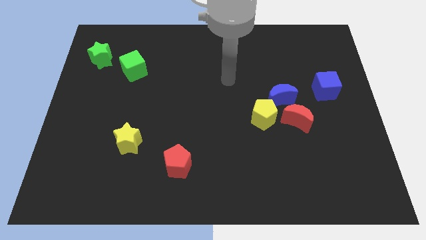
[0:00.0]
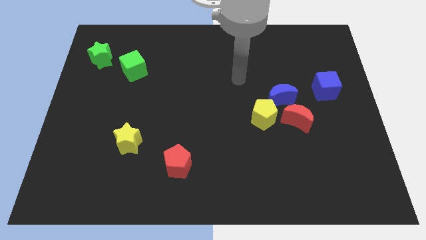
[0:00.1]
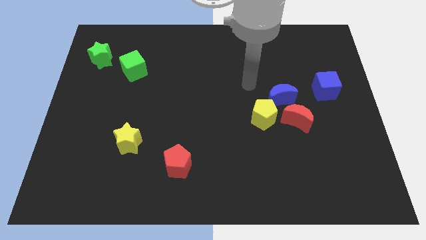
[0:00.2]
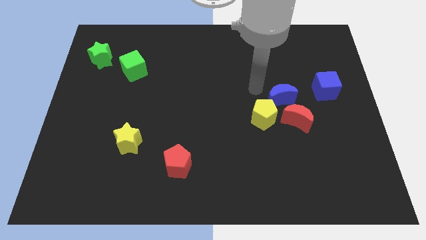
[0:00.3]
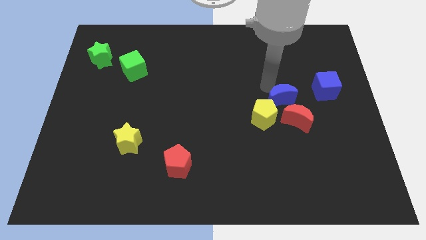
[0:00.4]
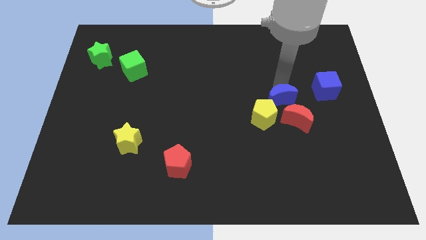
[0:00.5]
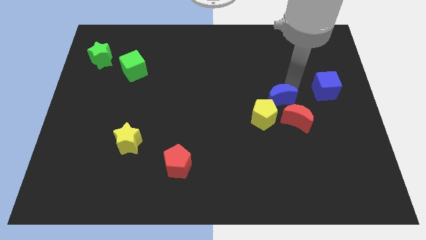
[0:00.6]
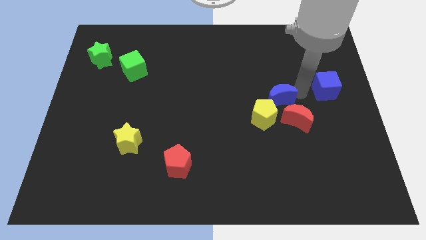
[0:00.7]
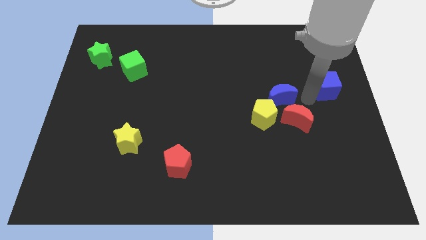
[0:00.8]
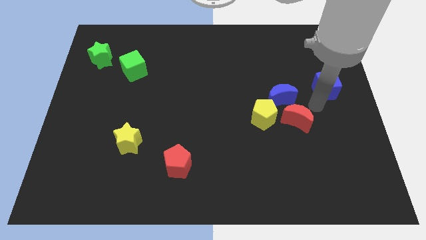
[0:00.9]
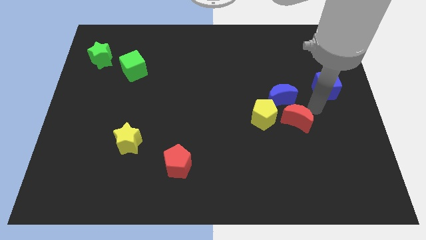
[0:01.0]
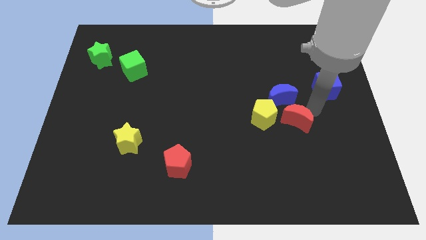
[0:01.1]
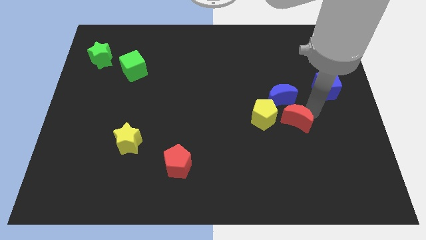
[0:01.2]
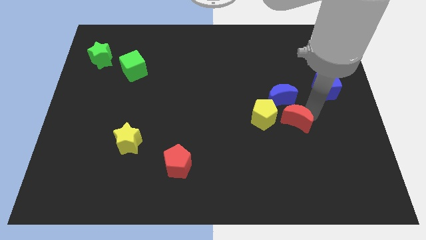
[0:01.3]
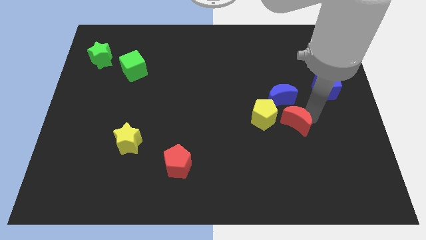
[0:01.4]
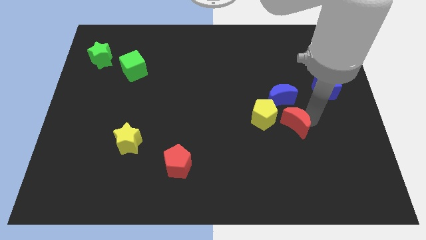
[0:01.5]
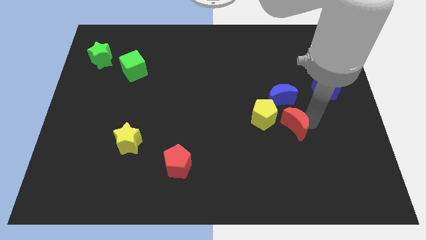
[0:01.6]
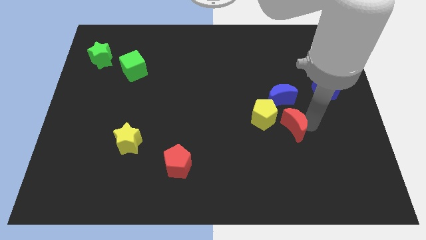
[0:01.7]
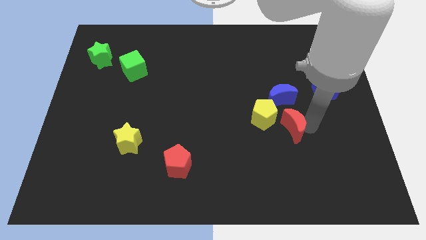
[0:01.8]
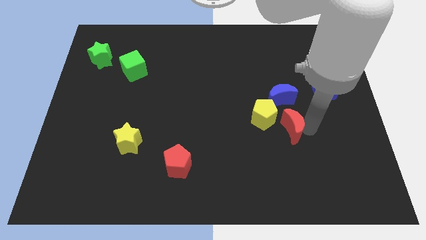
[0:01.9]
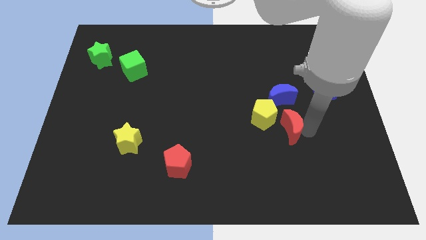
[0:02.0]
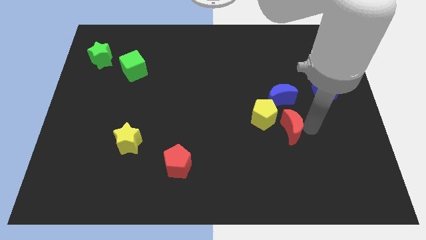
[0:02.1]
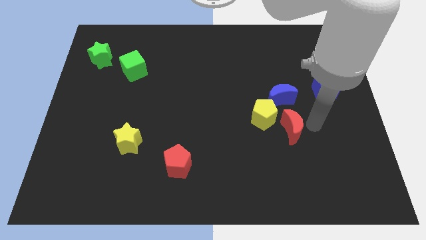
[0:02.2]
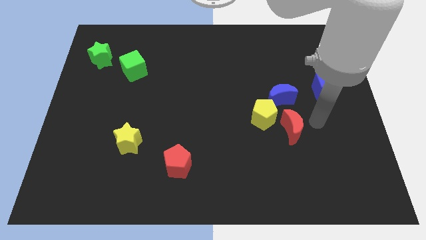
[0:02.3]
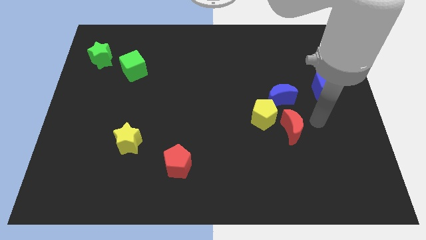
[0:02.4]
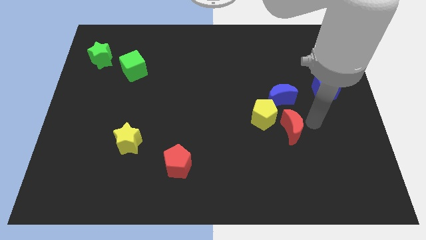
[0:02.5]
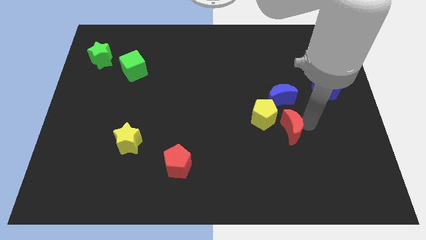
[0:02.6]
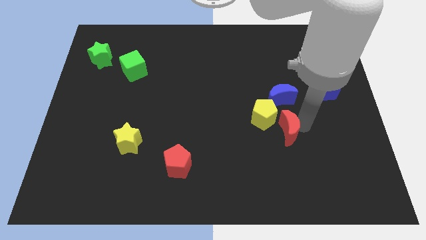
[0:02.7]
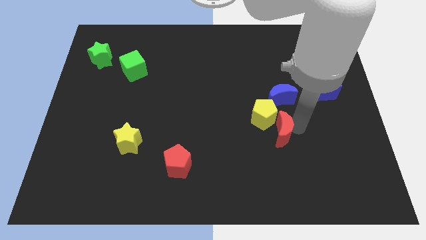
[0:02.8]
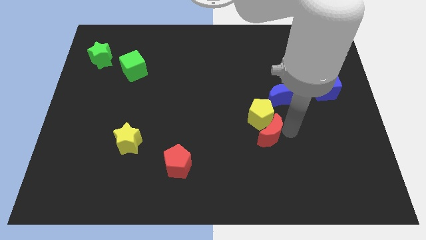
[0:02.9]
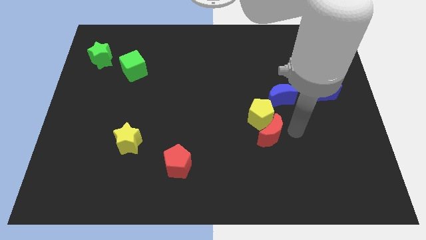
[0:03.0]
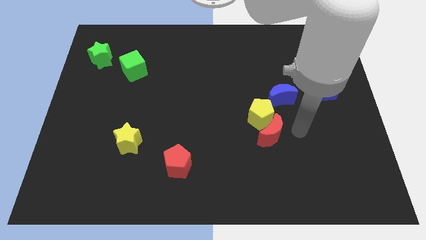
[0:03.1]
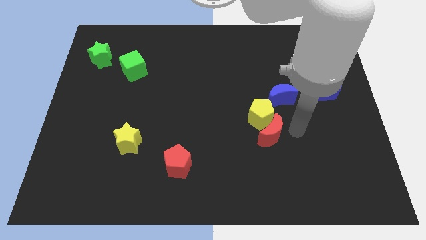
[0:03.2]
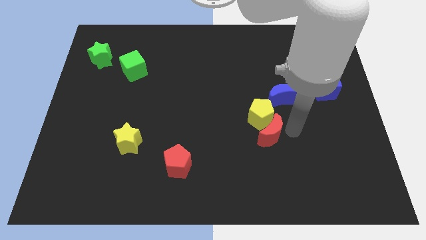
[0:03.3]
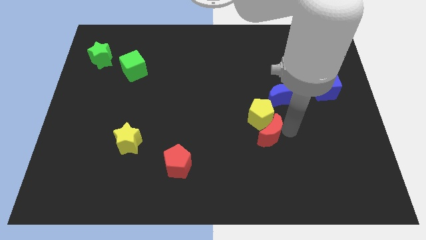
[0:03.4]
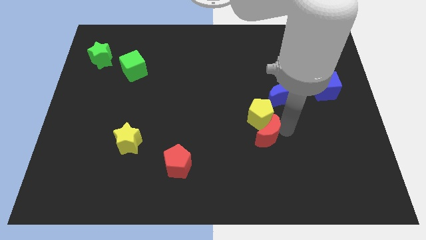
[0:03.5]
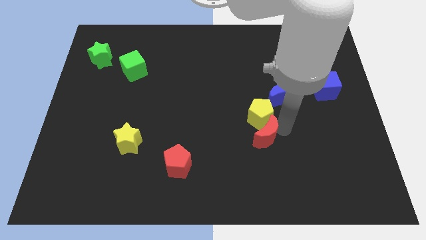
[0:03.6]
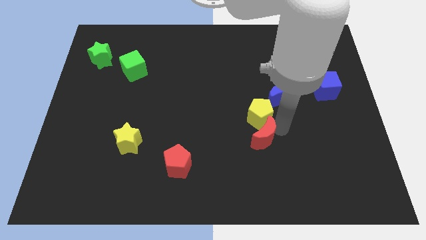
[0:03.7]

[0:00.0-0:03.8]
push the red moon to the left a bit

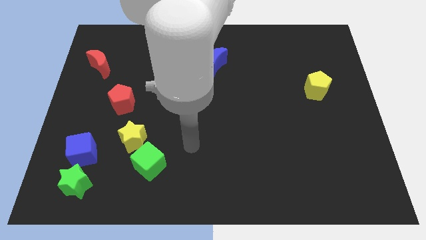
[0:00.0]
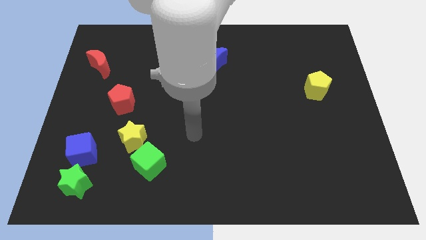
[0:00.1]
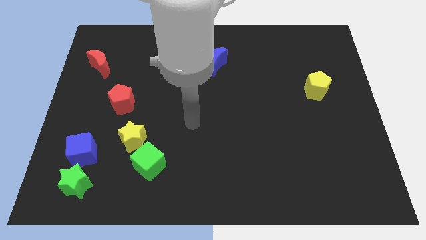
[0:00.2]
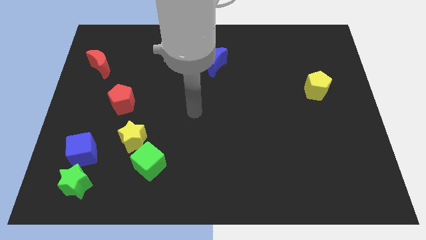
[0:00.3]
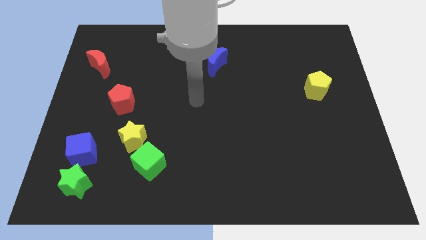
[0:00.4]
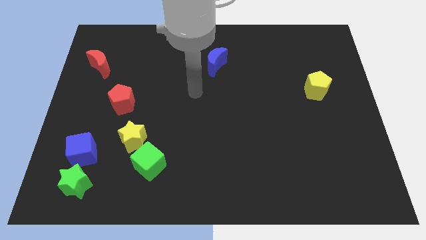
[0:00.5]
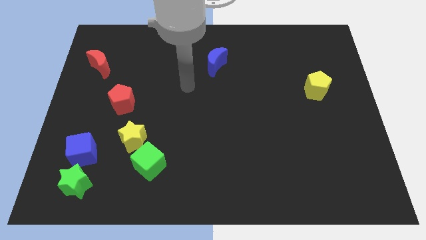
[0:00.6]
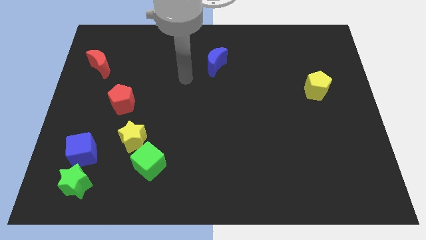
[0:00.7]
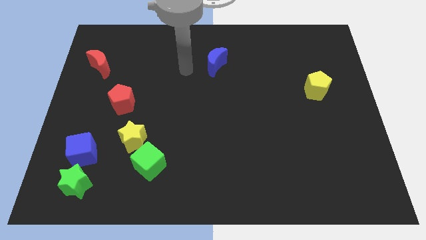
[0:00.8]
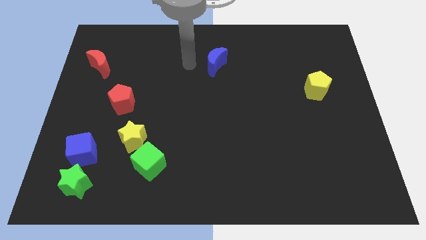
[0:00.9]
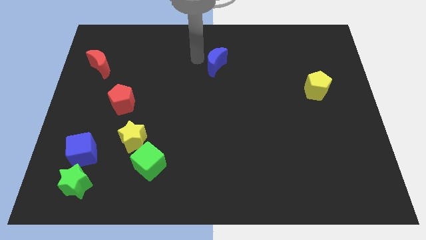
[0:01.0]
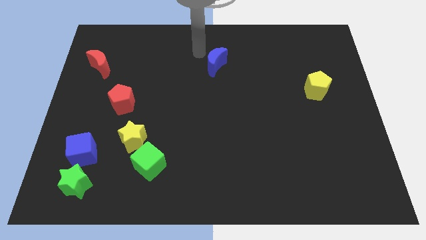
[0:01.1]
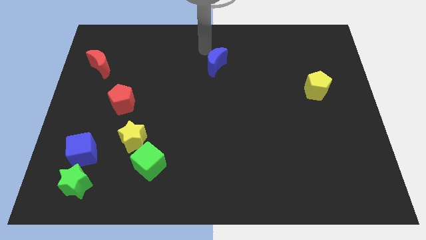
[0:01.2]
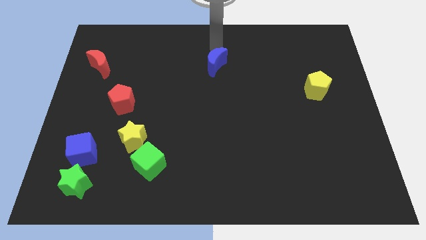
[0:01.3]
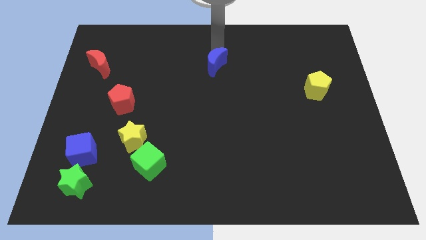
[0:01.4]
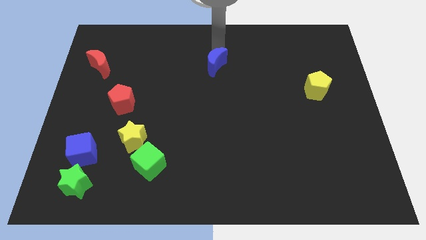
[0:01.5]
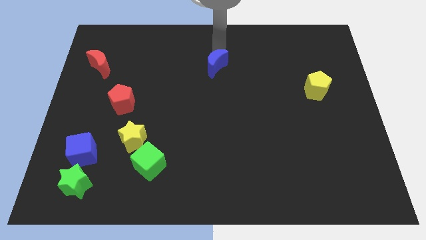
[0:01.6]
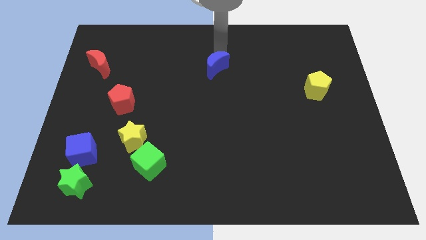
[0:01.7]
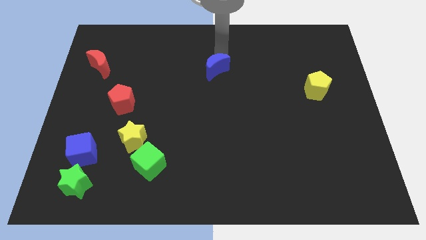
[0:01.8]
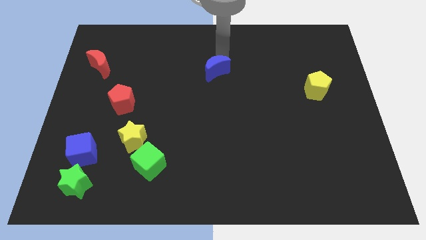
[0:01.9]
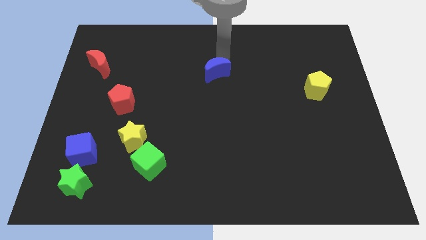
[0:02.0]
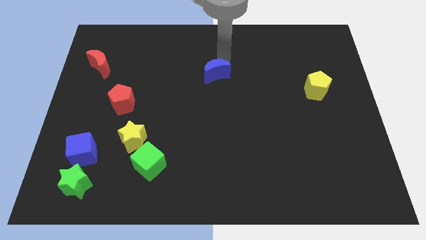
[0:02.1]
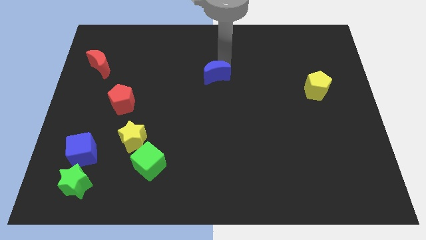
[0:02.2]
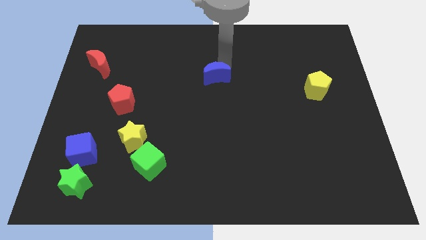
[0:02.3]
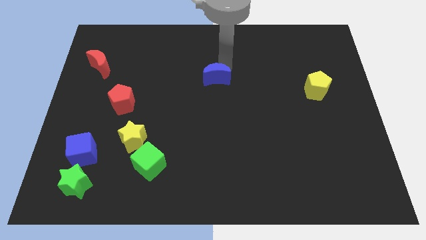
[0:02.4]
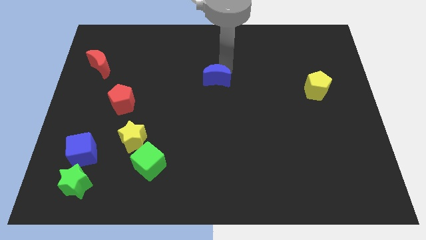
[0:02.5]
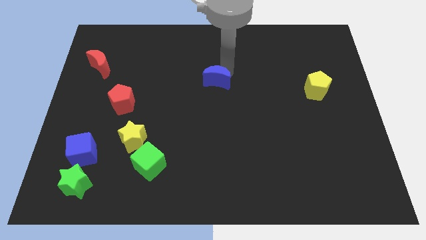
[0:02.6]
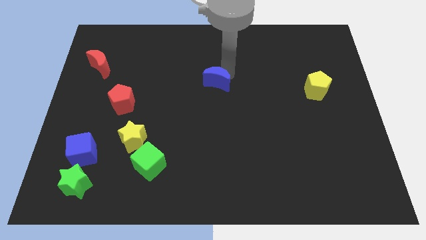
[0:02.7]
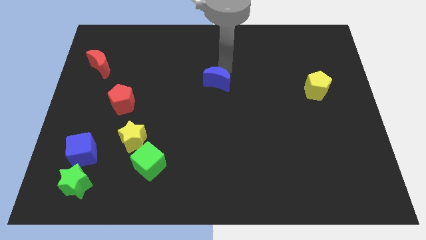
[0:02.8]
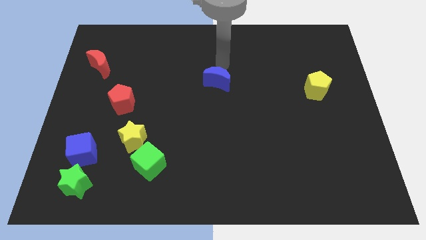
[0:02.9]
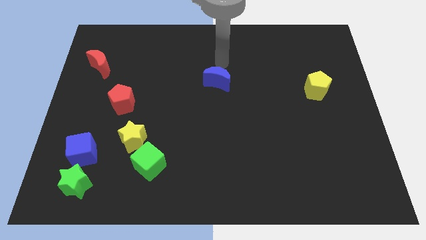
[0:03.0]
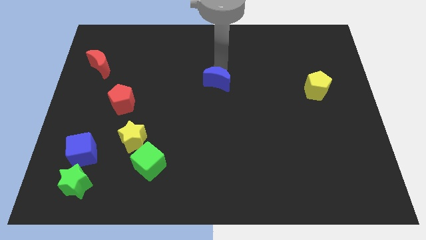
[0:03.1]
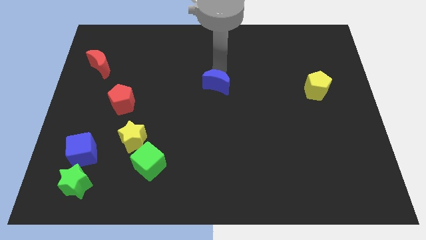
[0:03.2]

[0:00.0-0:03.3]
slightly slide the blue moon downwards

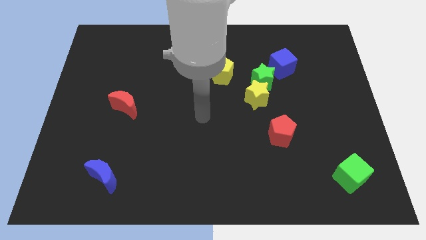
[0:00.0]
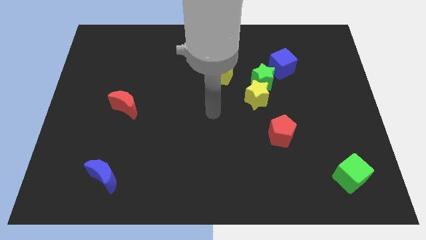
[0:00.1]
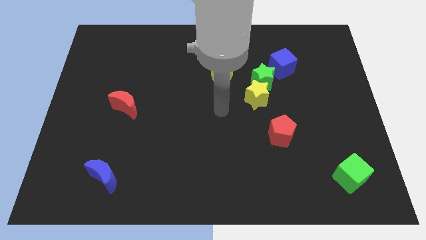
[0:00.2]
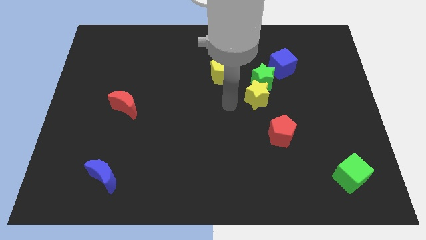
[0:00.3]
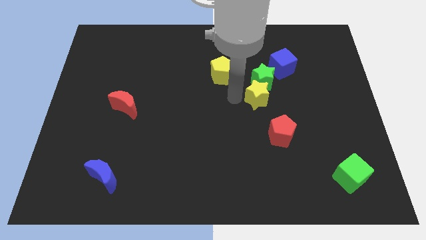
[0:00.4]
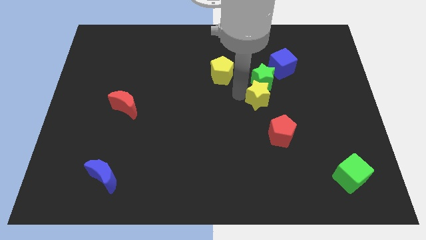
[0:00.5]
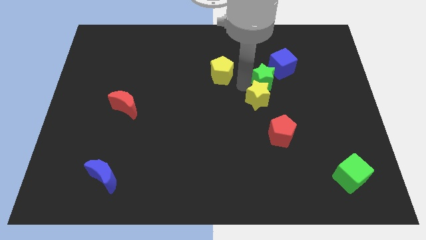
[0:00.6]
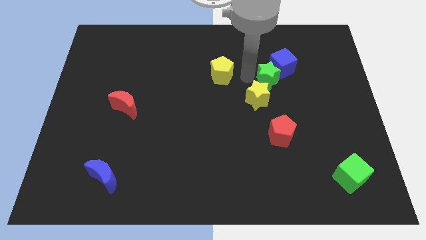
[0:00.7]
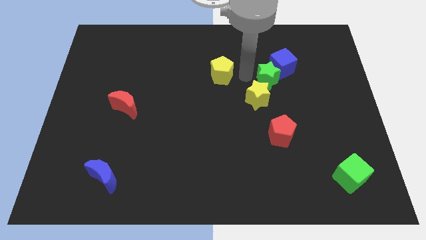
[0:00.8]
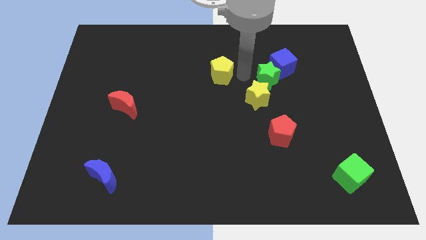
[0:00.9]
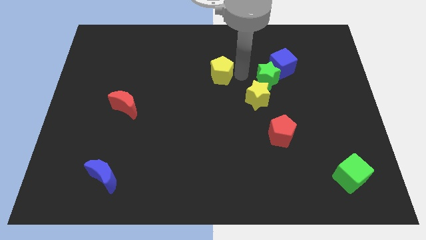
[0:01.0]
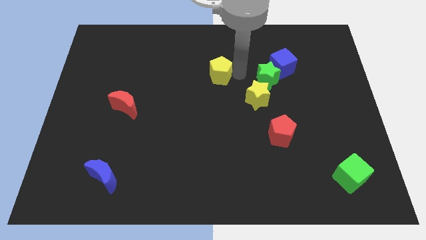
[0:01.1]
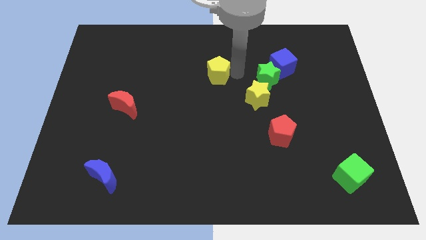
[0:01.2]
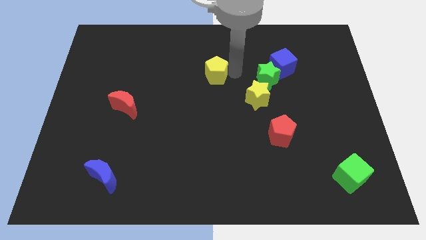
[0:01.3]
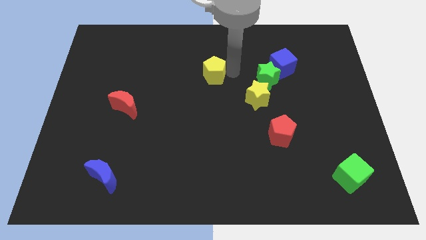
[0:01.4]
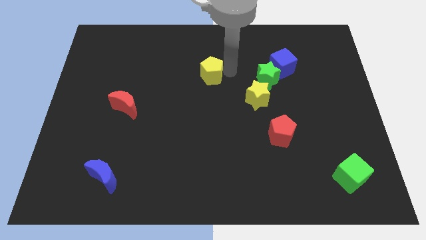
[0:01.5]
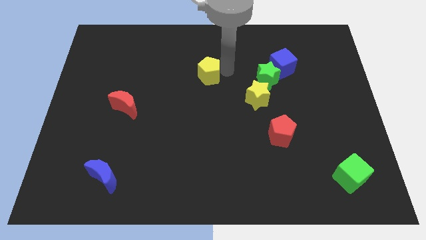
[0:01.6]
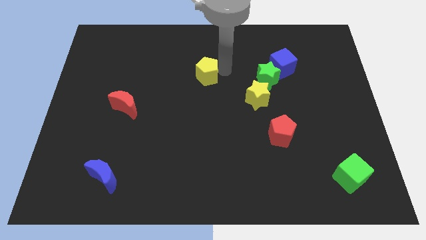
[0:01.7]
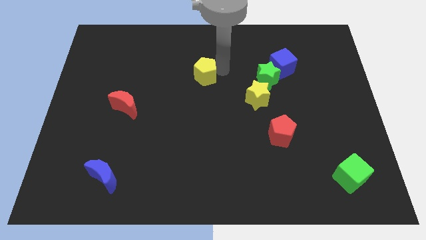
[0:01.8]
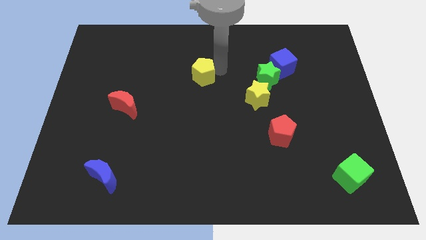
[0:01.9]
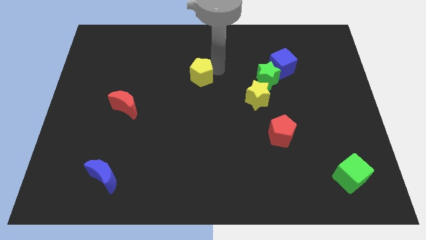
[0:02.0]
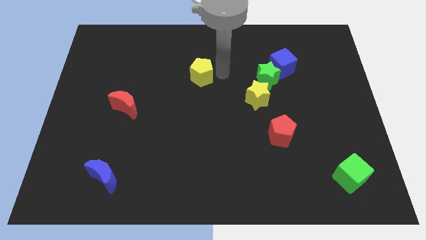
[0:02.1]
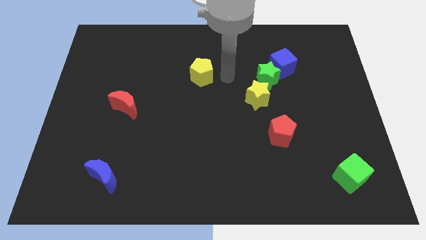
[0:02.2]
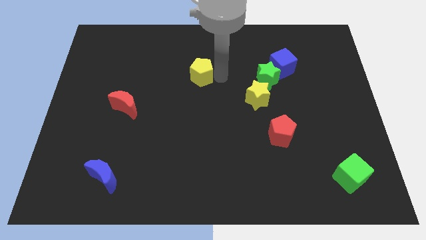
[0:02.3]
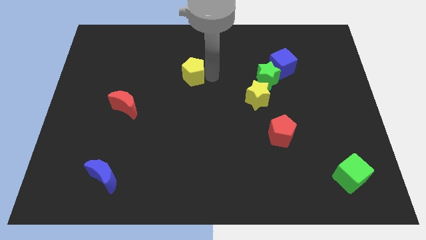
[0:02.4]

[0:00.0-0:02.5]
move the yellow pentagon left slightly
